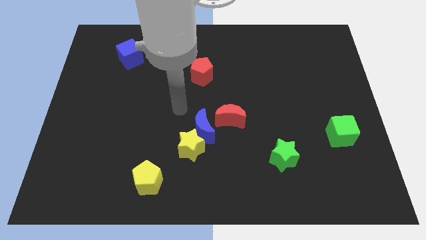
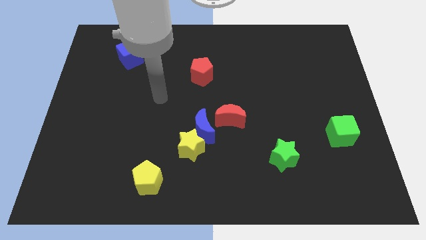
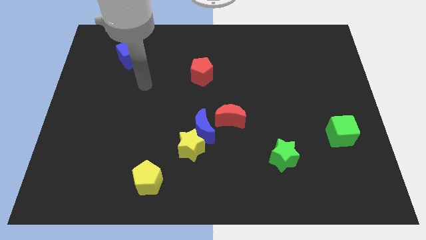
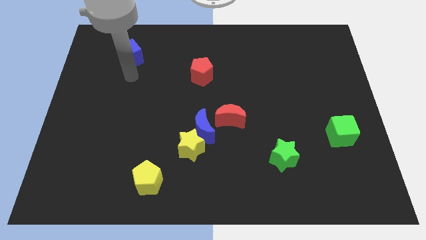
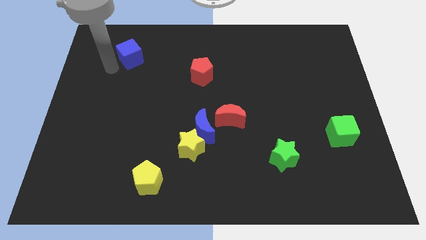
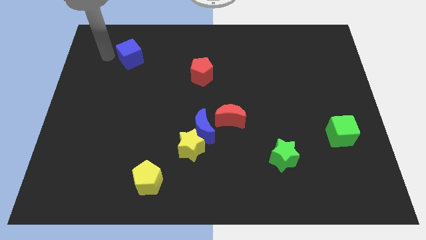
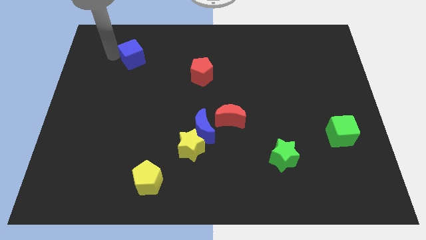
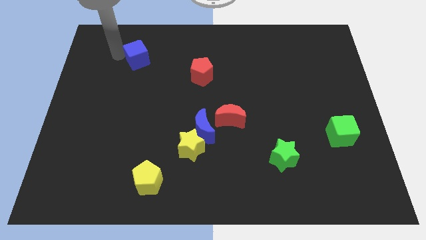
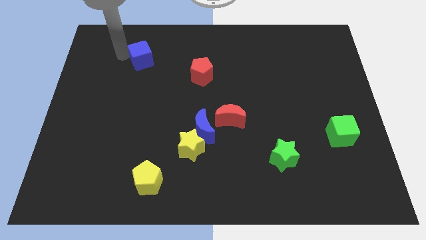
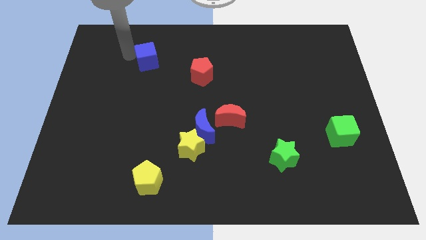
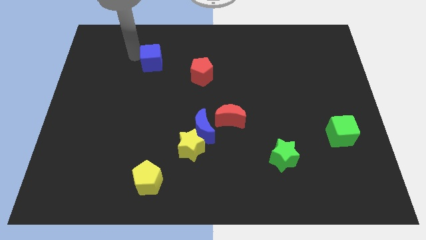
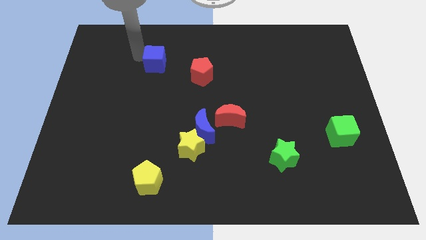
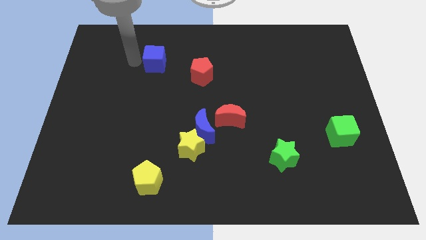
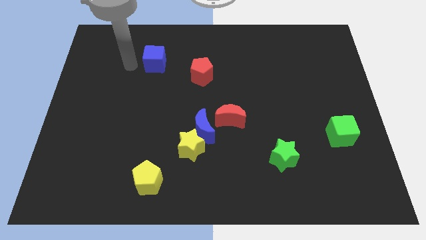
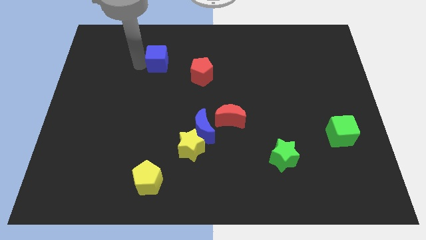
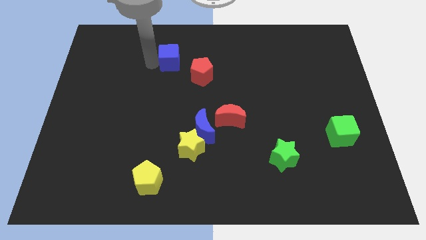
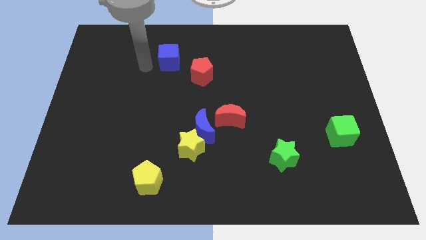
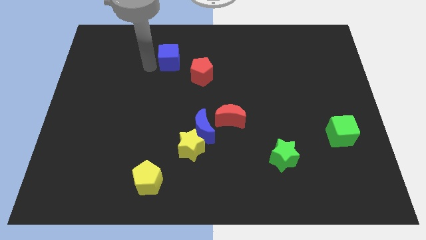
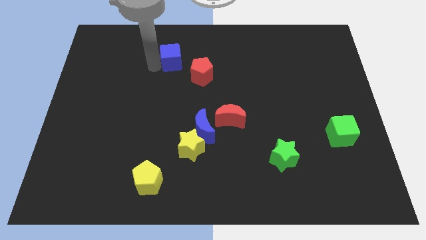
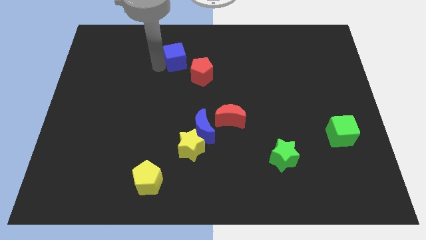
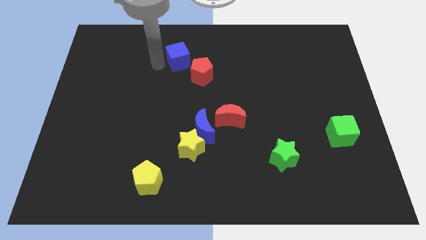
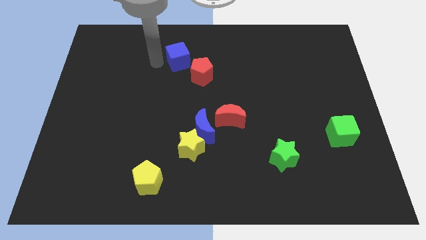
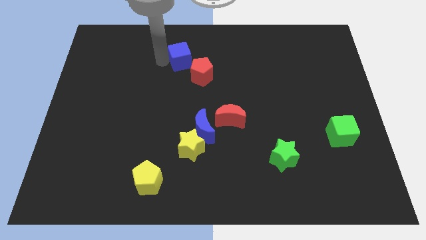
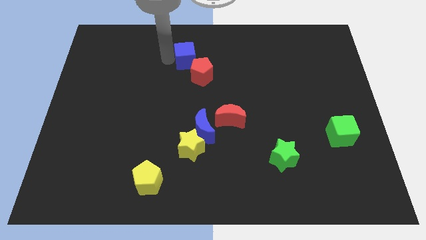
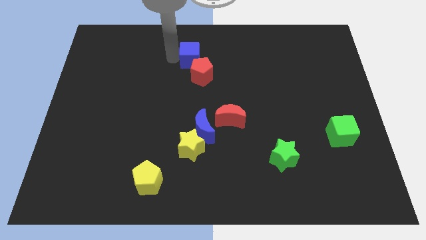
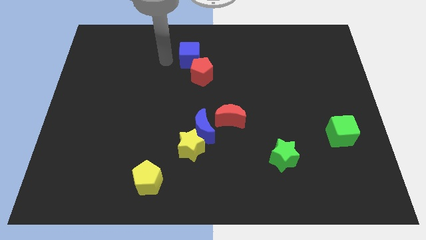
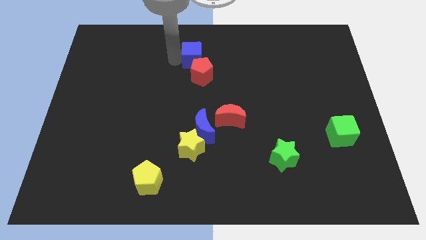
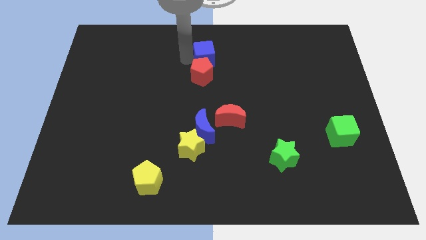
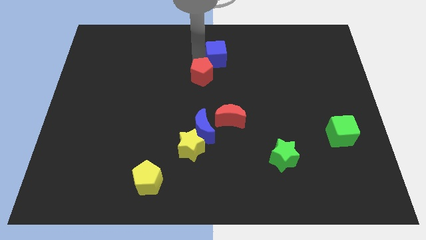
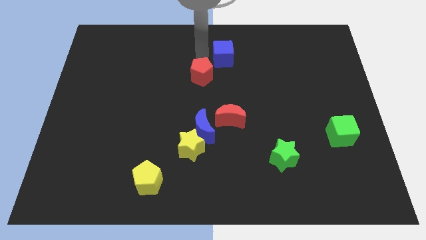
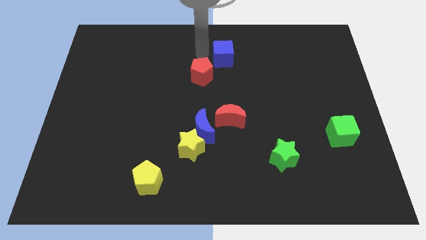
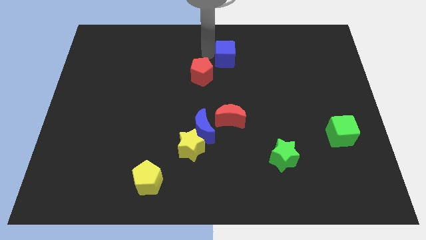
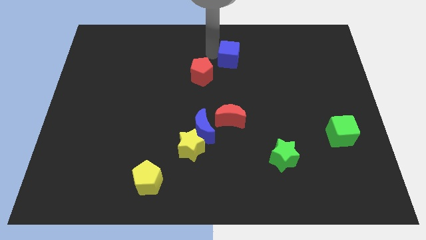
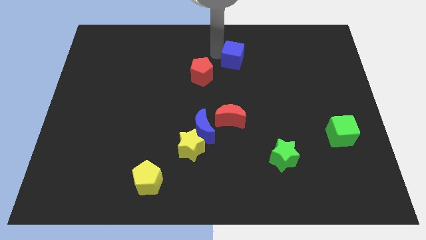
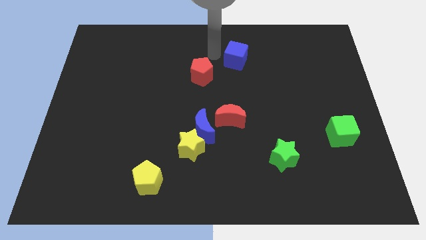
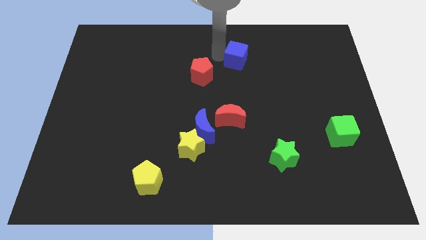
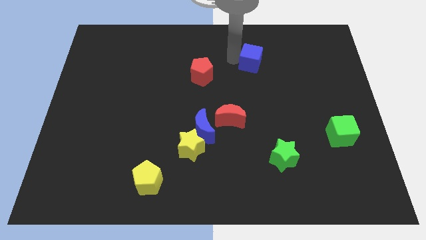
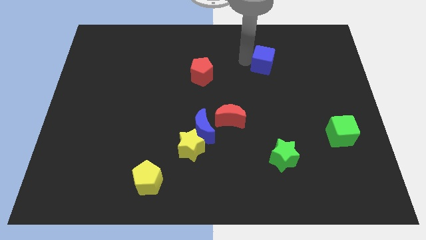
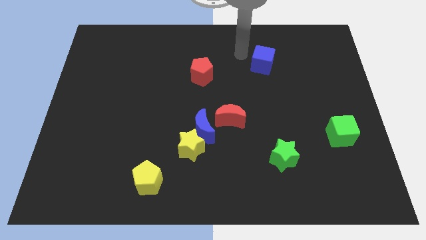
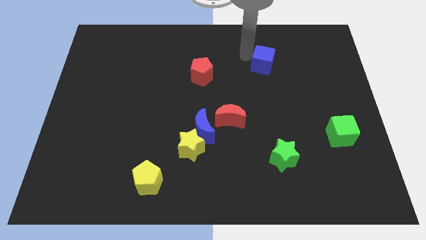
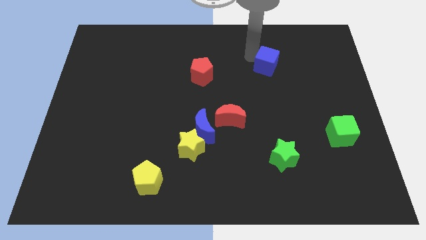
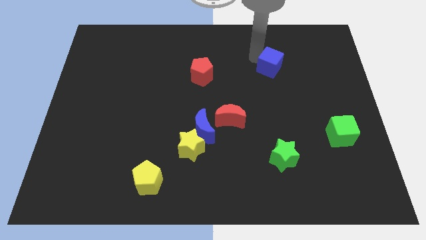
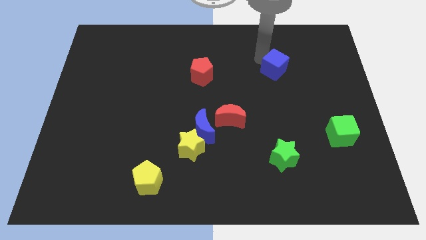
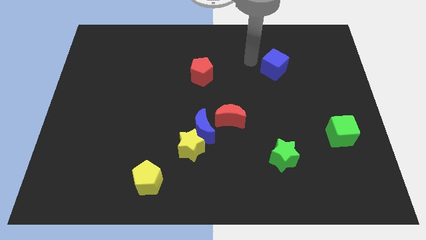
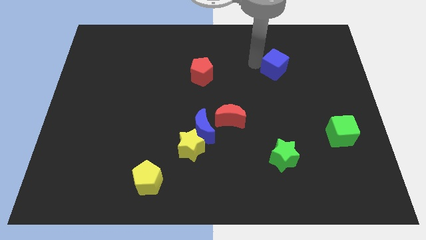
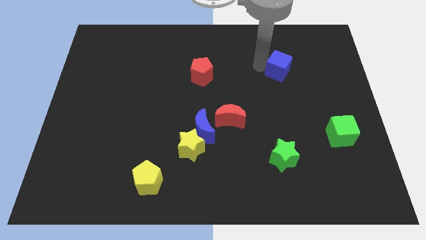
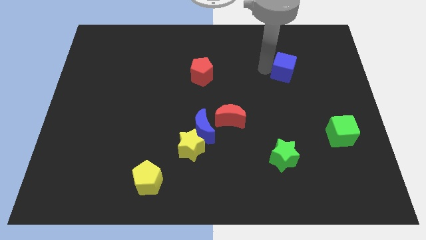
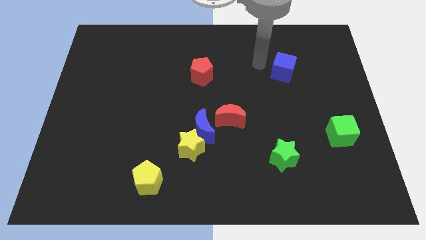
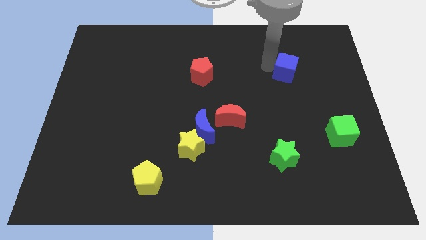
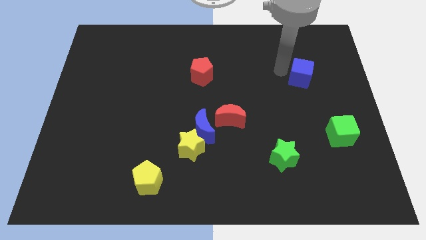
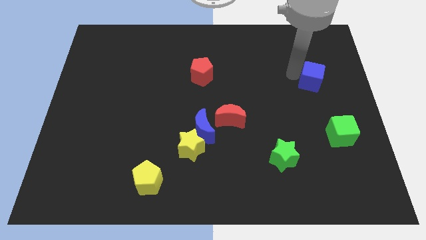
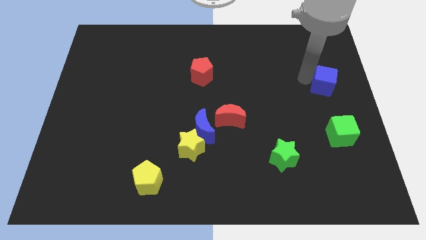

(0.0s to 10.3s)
move the blue cube to the right side of the board

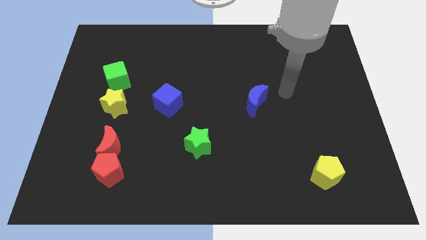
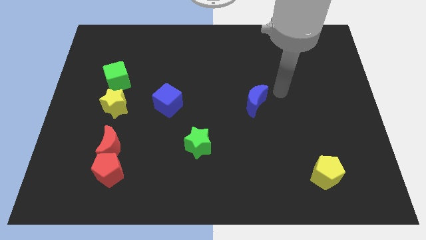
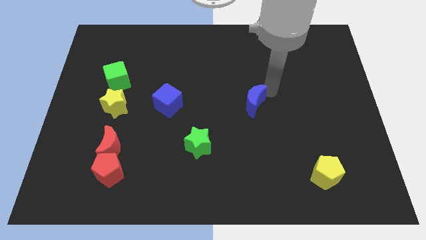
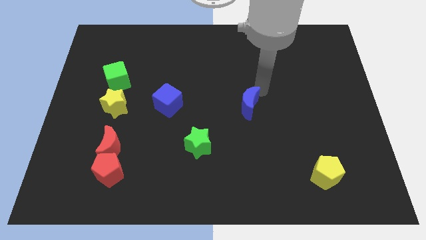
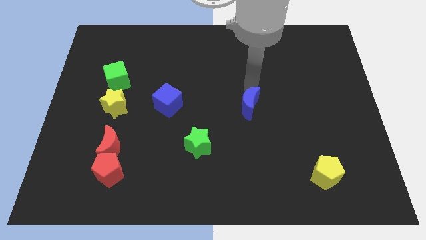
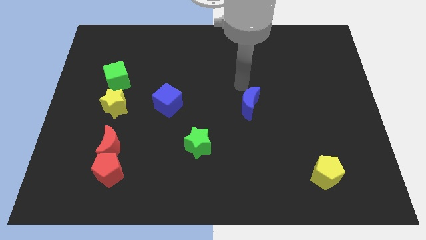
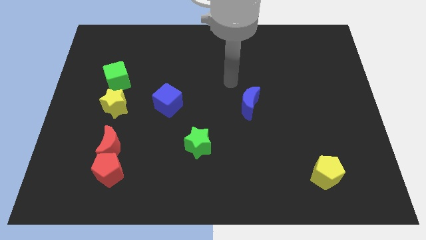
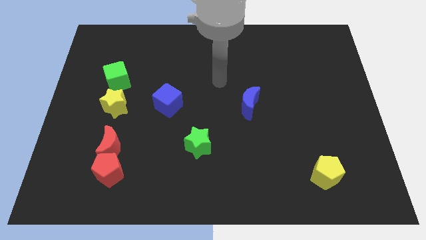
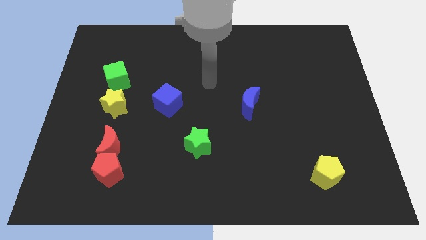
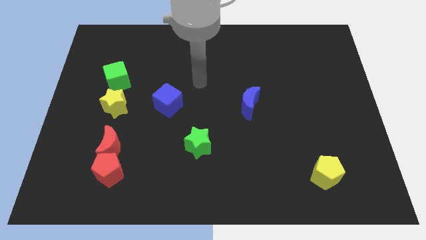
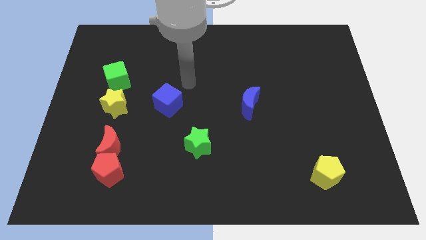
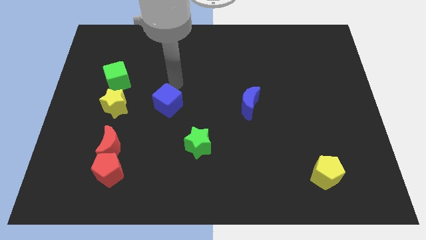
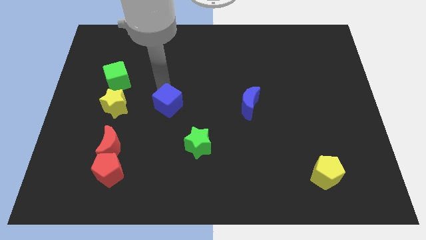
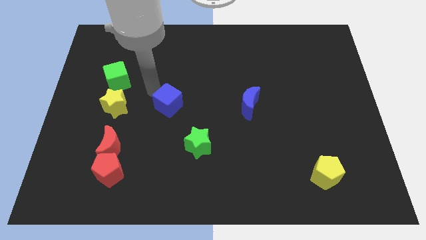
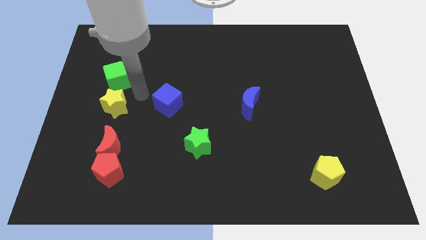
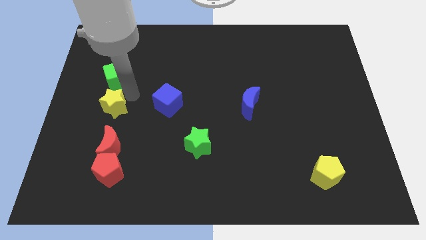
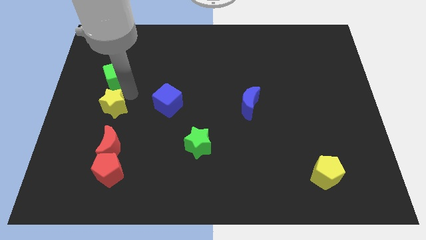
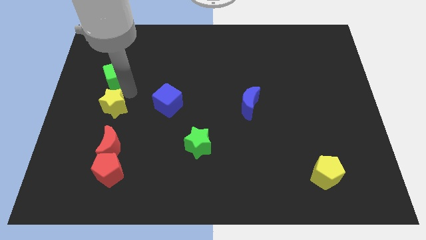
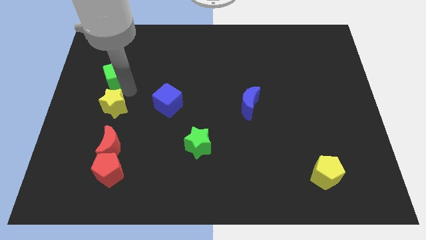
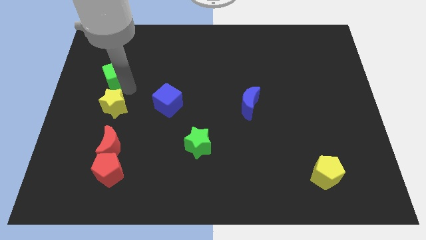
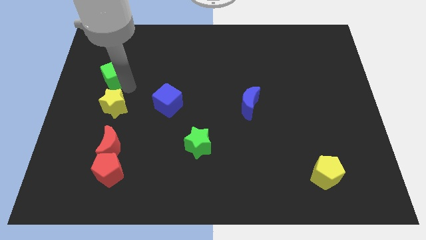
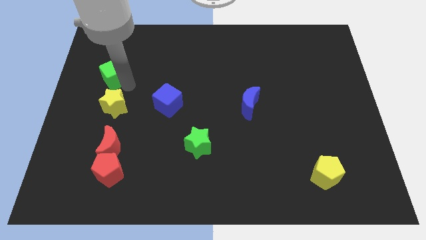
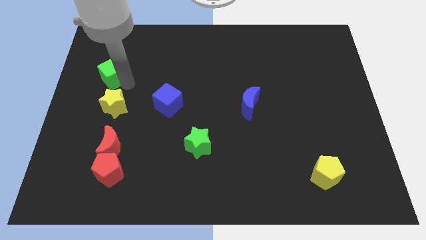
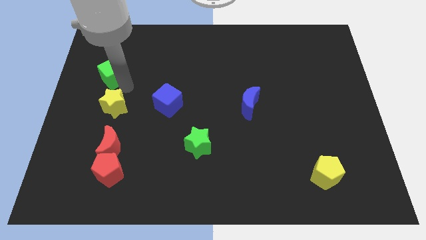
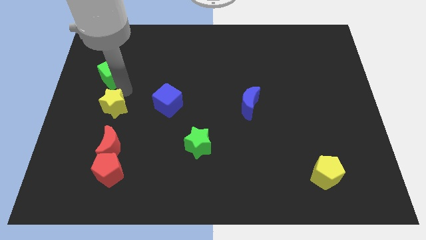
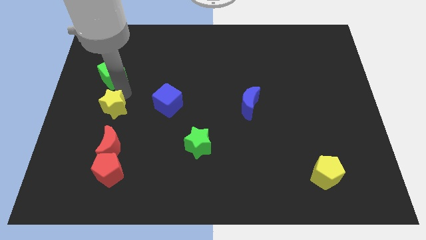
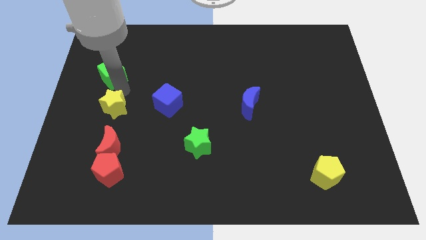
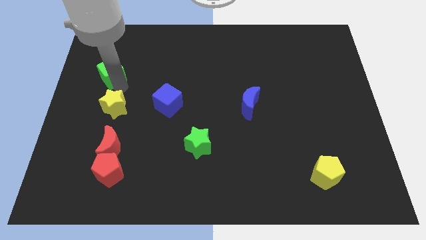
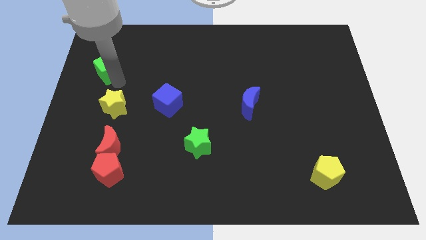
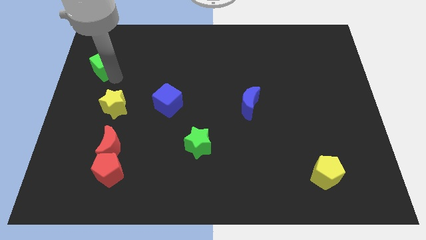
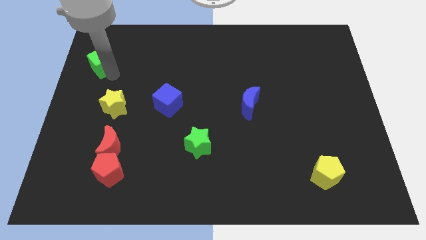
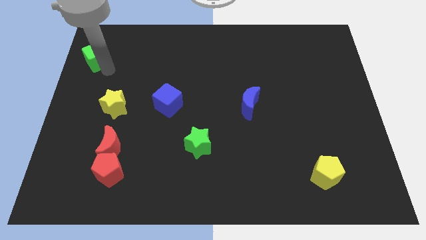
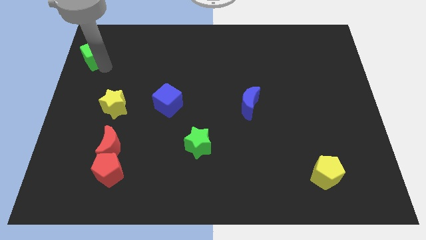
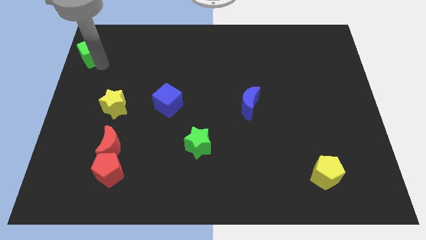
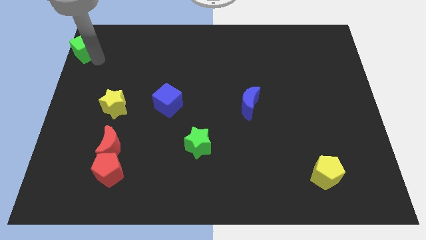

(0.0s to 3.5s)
move the green cube to the top left
